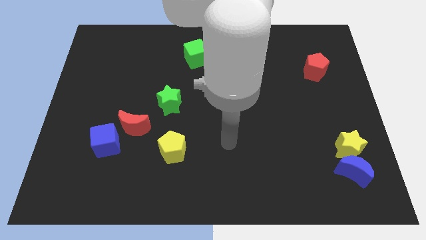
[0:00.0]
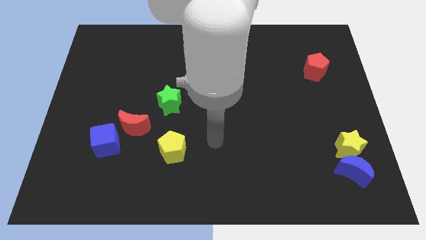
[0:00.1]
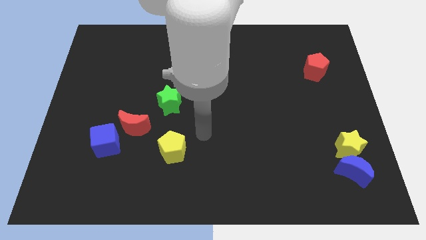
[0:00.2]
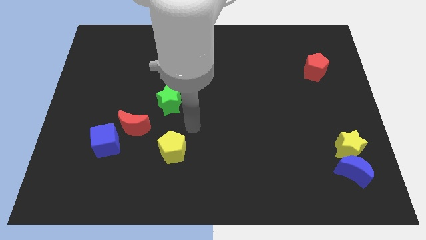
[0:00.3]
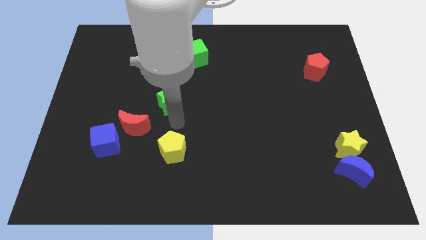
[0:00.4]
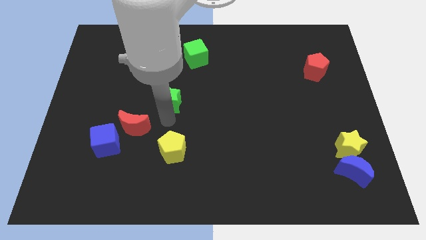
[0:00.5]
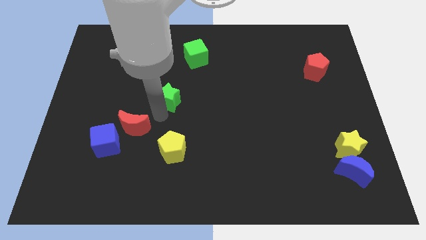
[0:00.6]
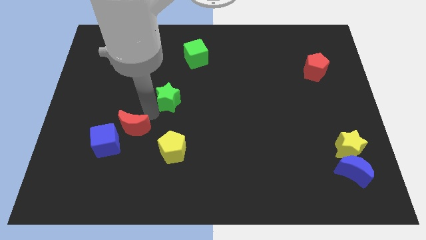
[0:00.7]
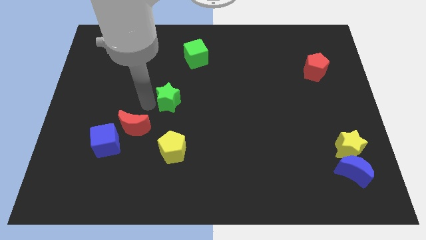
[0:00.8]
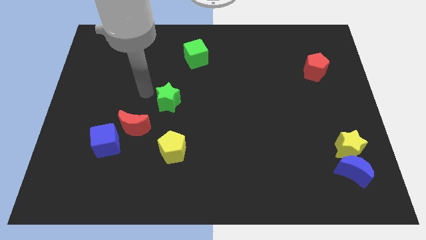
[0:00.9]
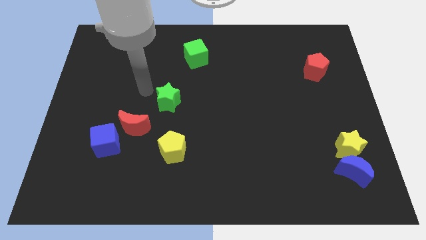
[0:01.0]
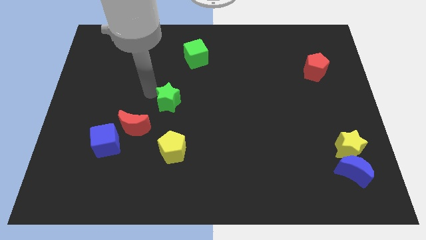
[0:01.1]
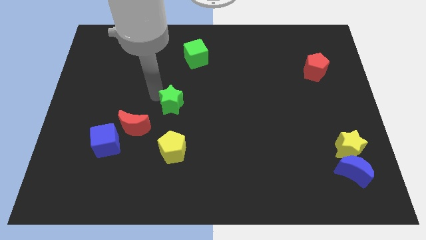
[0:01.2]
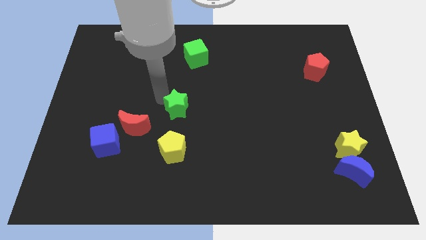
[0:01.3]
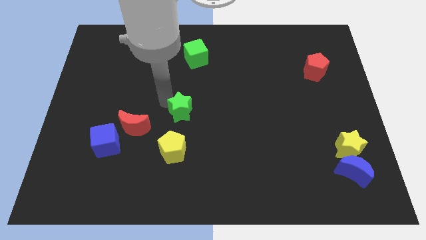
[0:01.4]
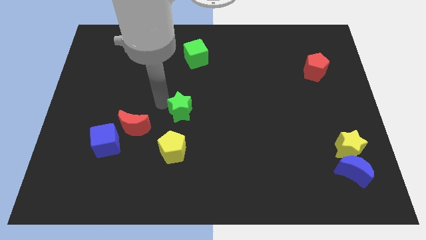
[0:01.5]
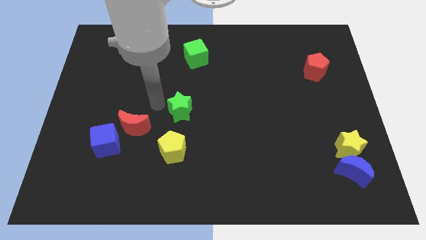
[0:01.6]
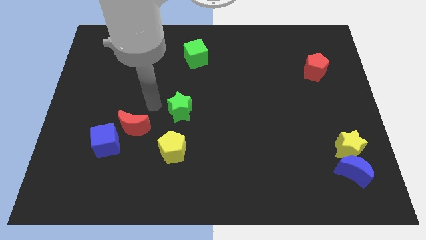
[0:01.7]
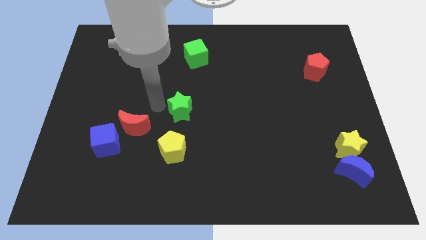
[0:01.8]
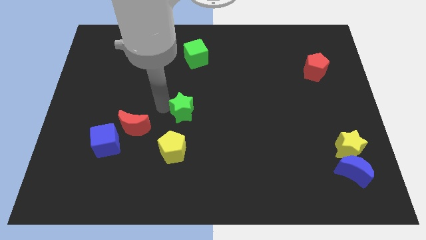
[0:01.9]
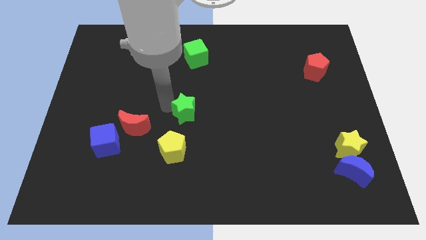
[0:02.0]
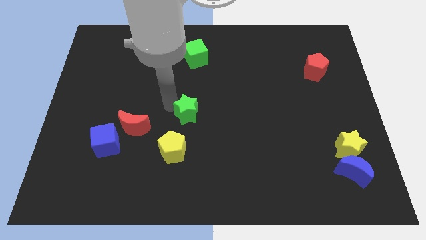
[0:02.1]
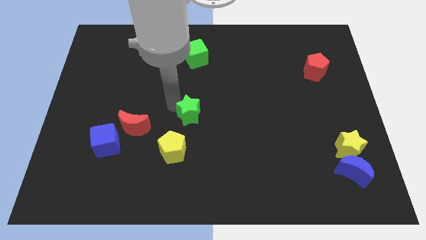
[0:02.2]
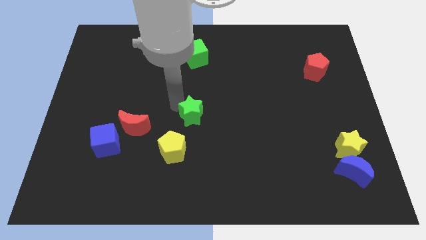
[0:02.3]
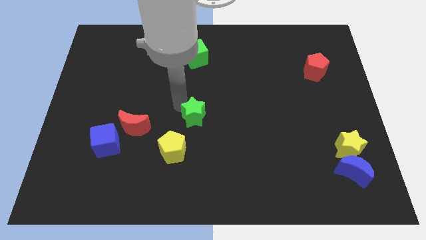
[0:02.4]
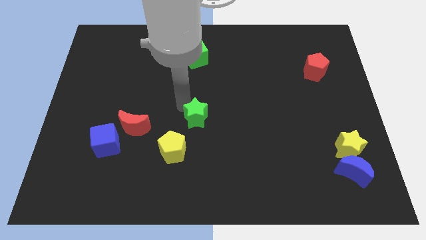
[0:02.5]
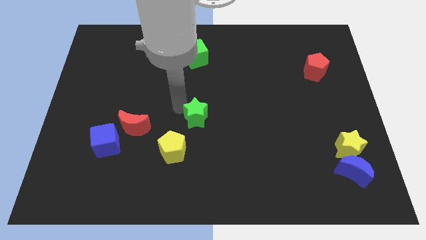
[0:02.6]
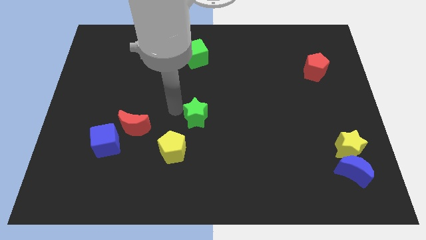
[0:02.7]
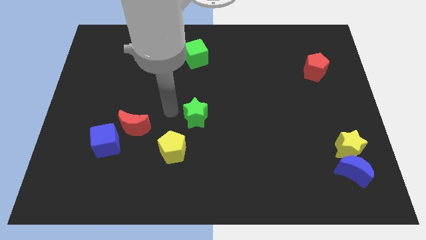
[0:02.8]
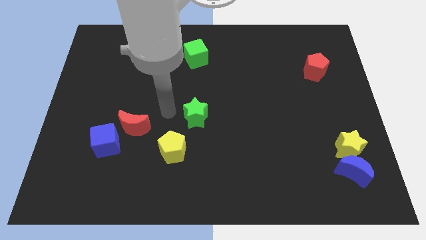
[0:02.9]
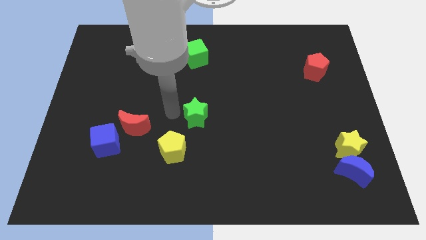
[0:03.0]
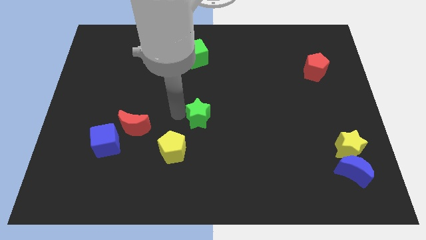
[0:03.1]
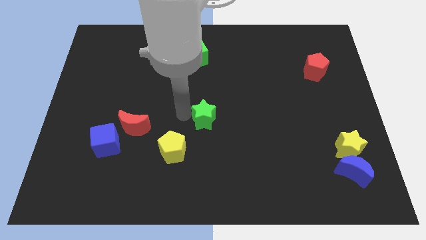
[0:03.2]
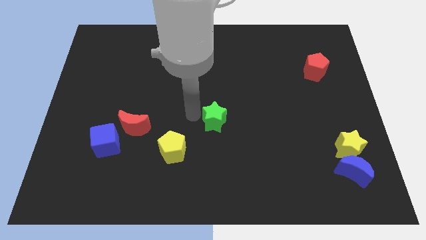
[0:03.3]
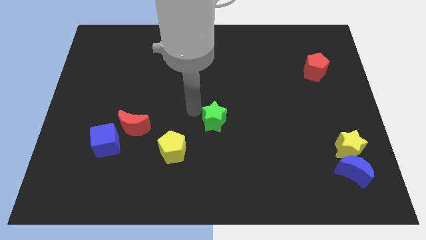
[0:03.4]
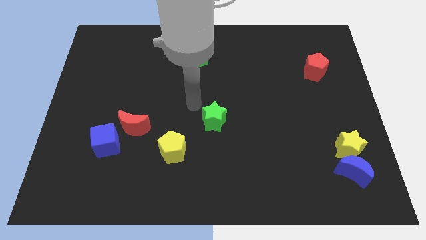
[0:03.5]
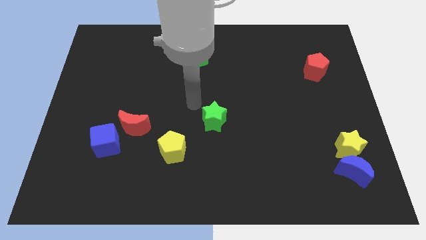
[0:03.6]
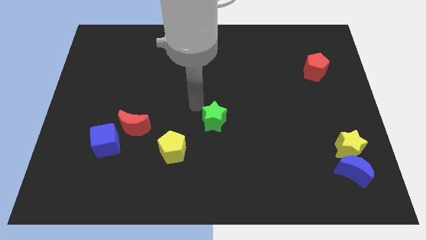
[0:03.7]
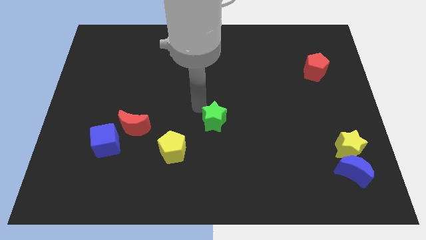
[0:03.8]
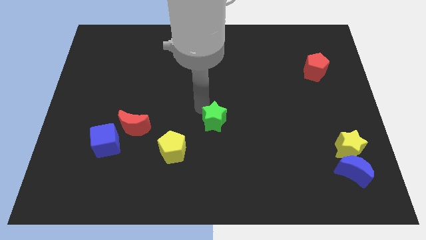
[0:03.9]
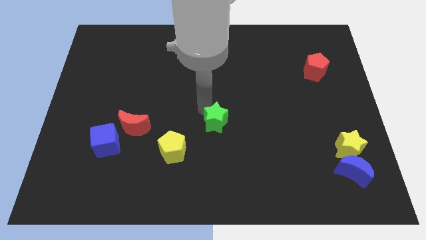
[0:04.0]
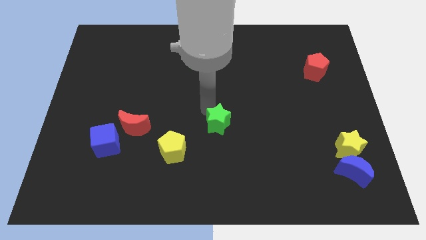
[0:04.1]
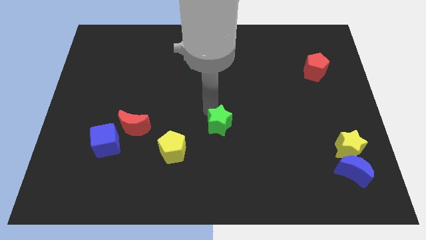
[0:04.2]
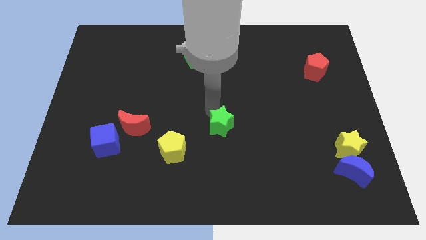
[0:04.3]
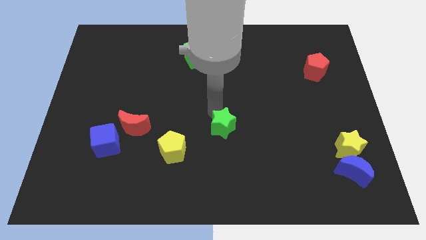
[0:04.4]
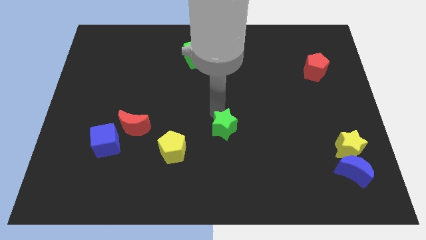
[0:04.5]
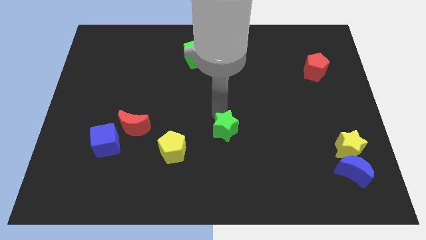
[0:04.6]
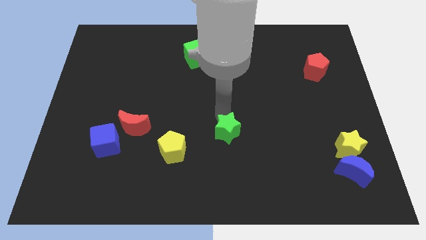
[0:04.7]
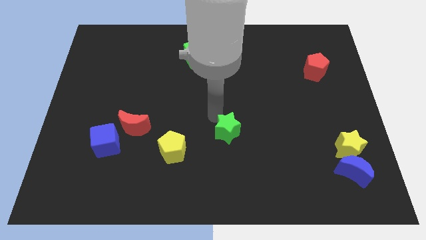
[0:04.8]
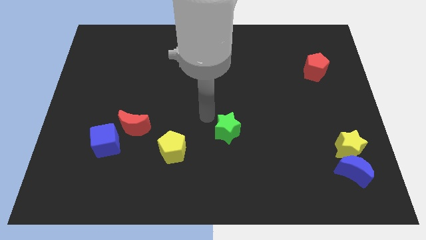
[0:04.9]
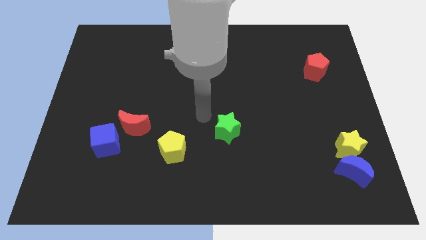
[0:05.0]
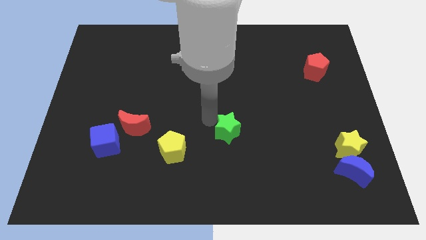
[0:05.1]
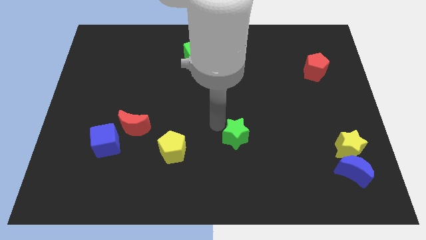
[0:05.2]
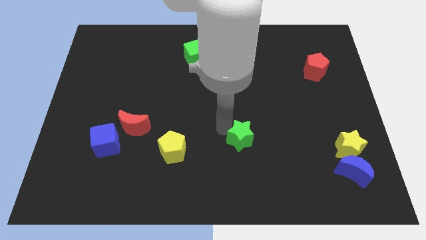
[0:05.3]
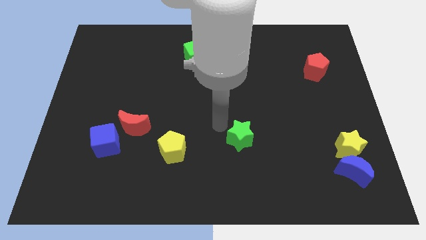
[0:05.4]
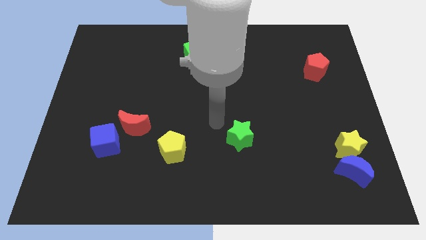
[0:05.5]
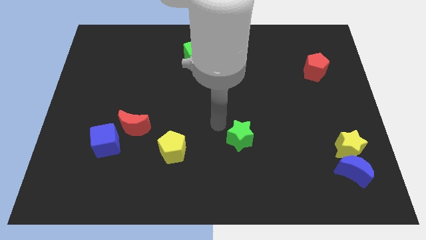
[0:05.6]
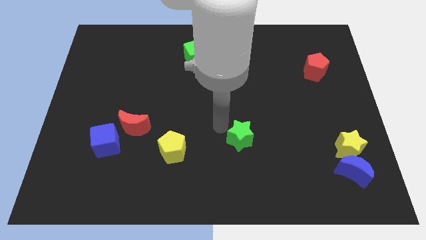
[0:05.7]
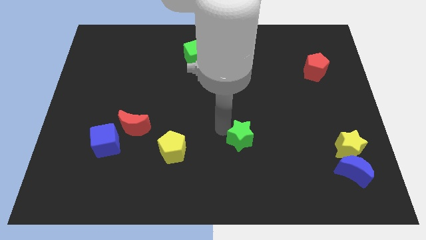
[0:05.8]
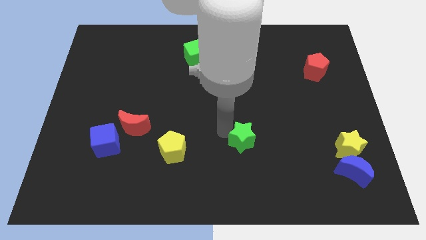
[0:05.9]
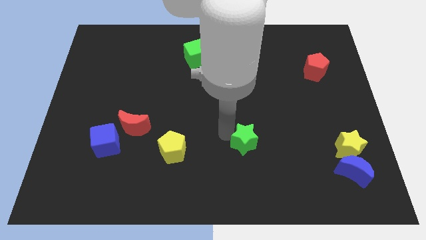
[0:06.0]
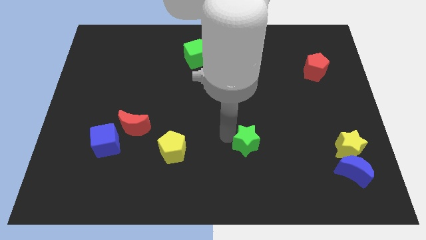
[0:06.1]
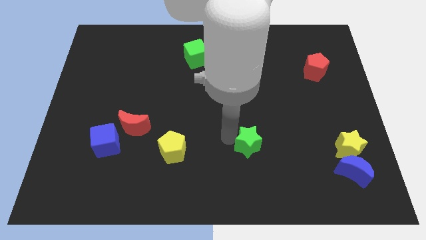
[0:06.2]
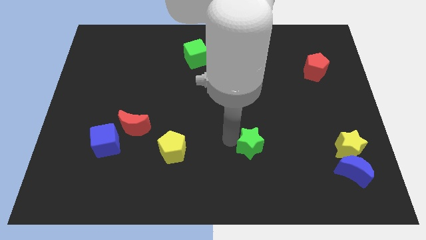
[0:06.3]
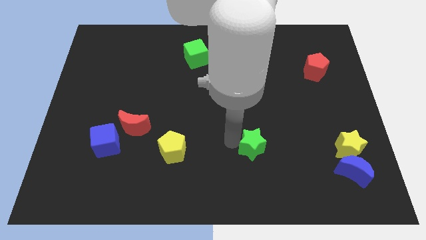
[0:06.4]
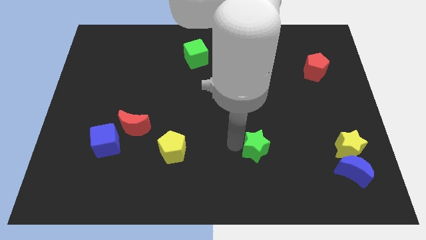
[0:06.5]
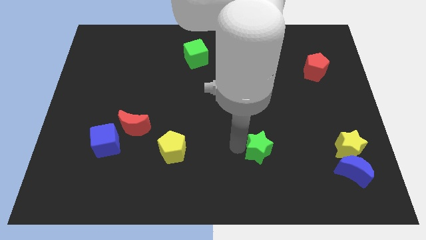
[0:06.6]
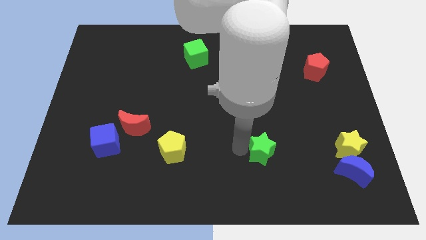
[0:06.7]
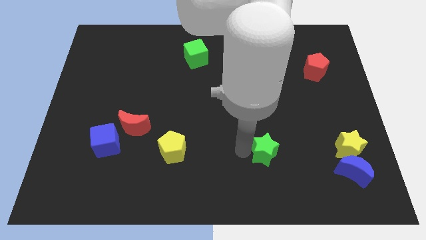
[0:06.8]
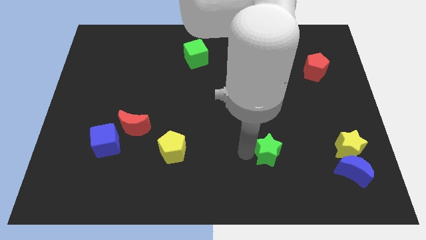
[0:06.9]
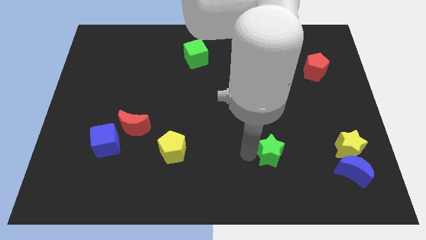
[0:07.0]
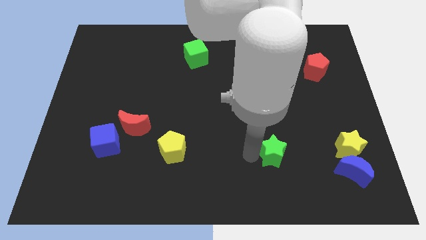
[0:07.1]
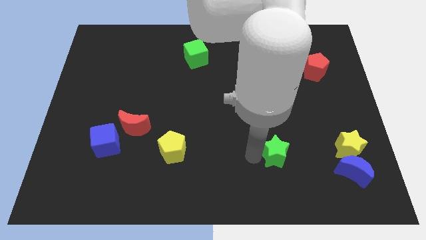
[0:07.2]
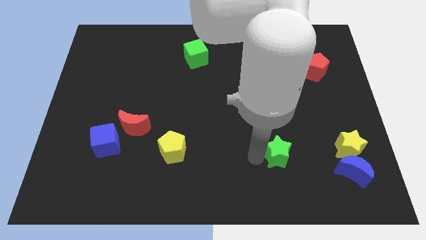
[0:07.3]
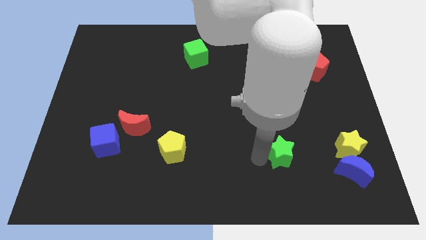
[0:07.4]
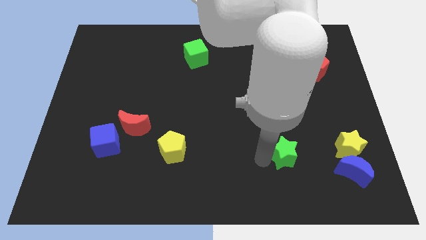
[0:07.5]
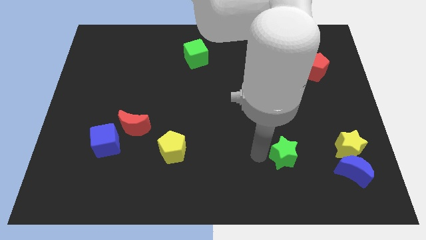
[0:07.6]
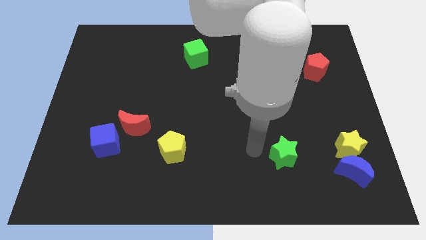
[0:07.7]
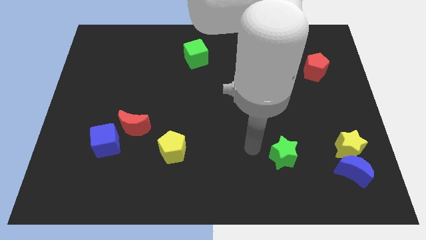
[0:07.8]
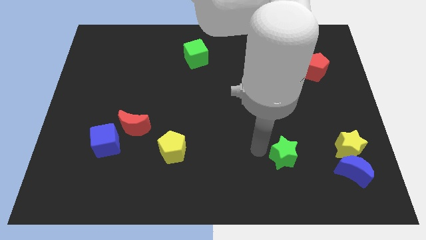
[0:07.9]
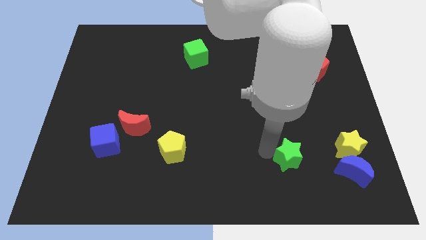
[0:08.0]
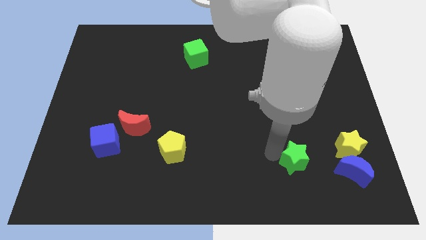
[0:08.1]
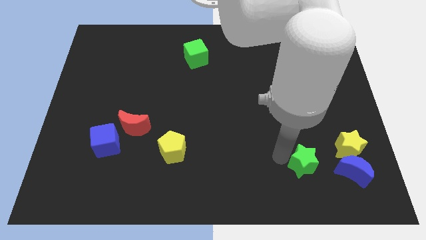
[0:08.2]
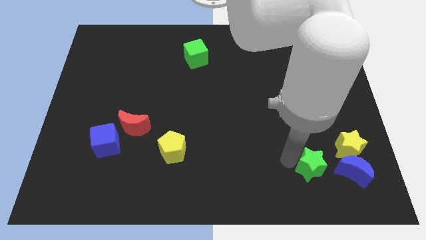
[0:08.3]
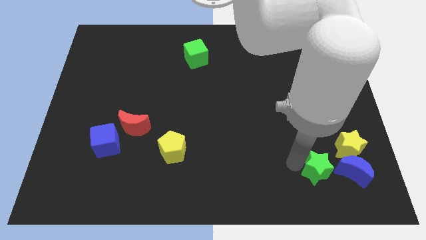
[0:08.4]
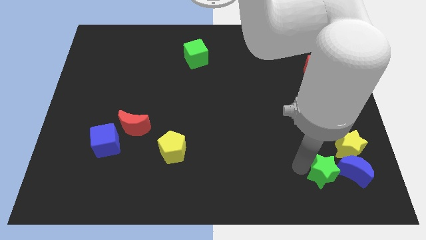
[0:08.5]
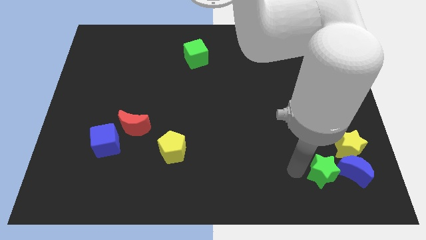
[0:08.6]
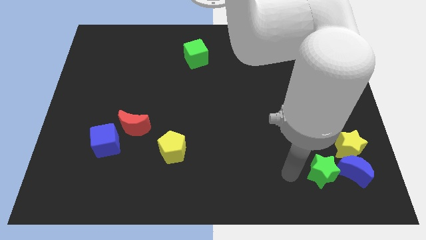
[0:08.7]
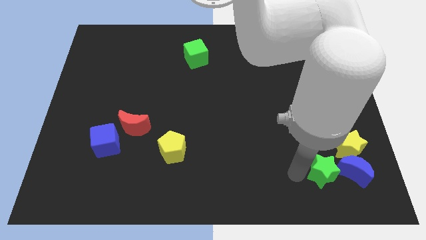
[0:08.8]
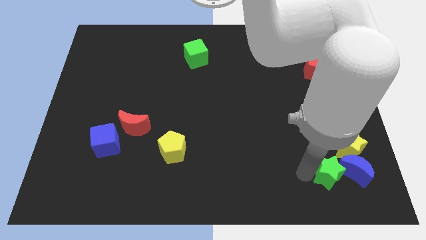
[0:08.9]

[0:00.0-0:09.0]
slide the green star close to the blue moon
